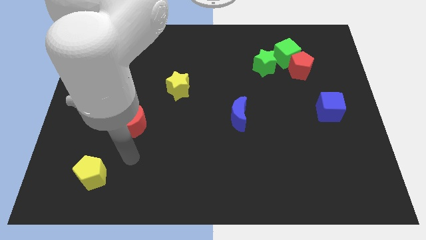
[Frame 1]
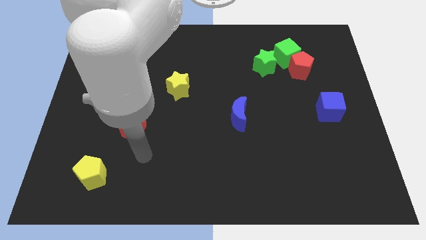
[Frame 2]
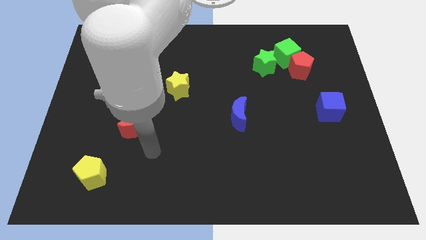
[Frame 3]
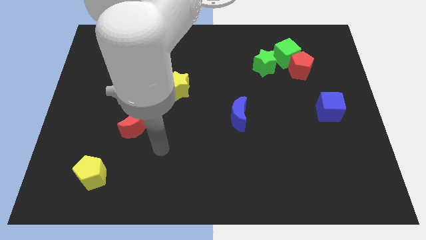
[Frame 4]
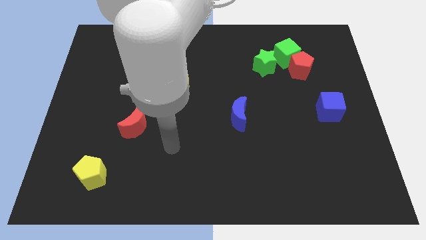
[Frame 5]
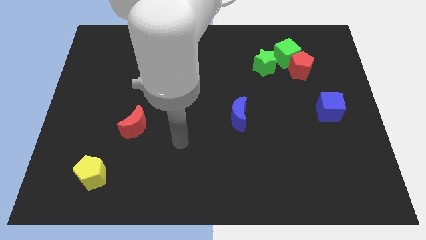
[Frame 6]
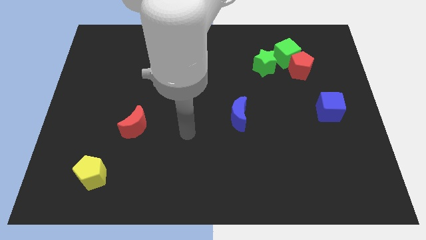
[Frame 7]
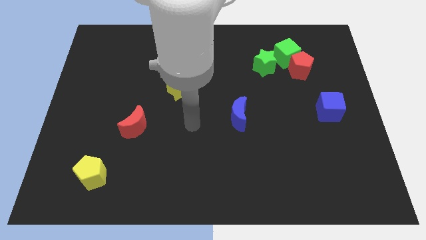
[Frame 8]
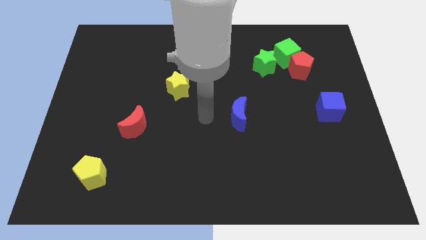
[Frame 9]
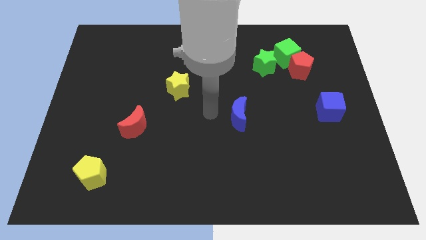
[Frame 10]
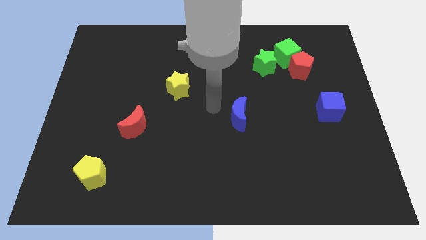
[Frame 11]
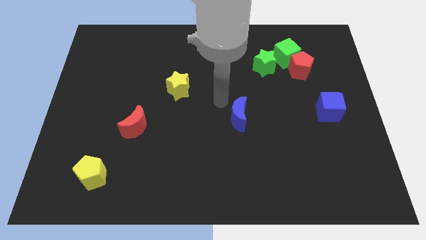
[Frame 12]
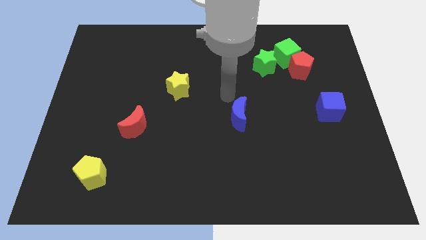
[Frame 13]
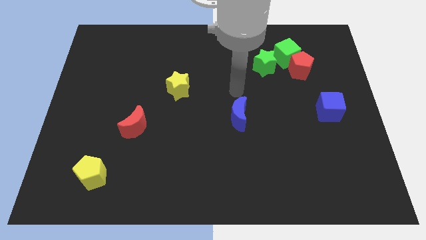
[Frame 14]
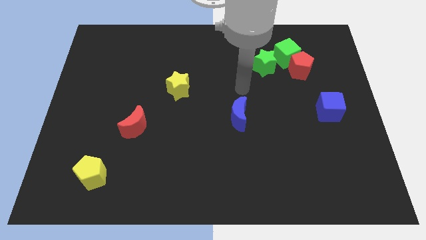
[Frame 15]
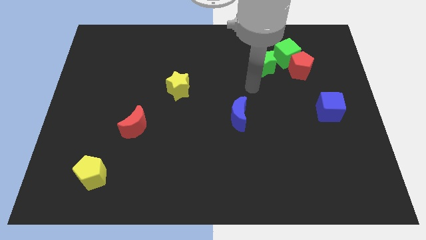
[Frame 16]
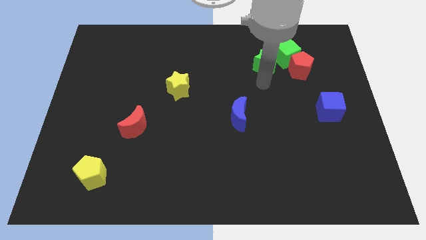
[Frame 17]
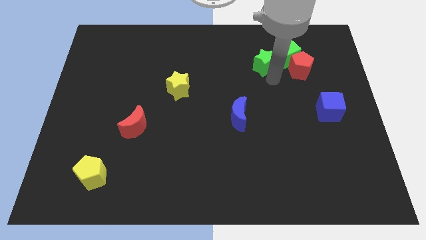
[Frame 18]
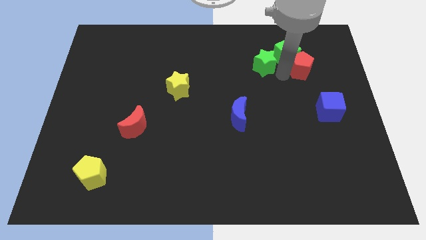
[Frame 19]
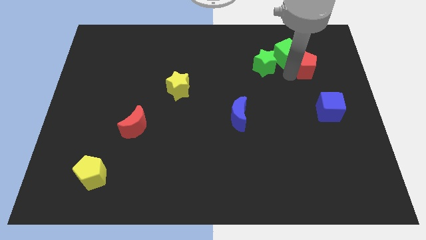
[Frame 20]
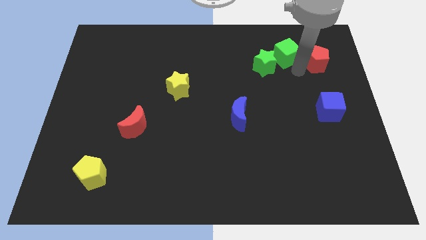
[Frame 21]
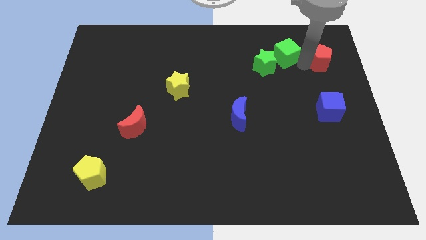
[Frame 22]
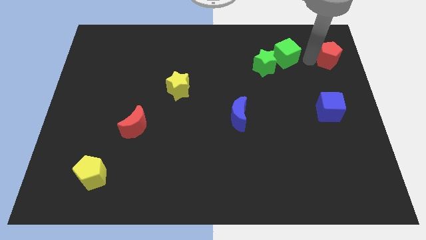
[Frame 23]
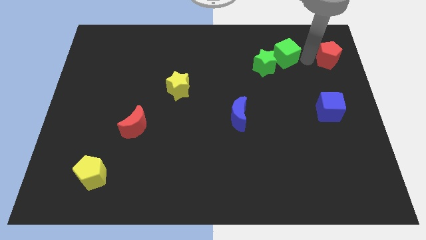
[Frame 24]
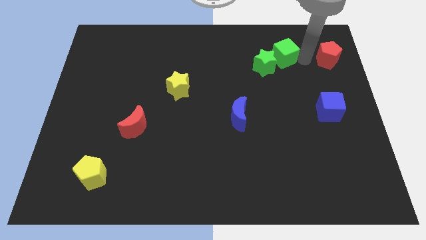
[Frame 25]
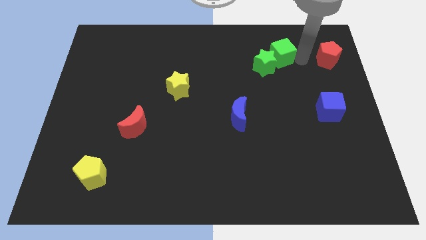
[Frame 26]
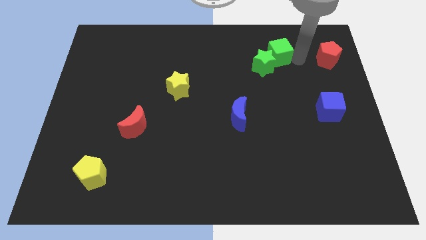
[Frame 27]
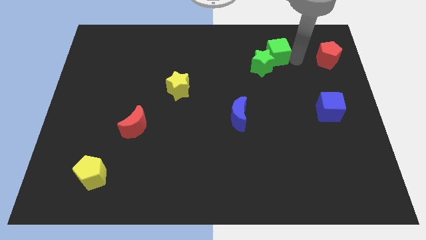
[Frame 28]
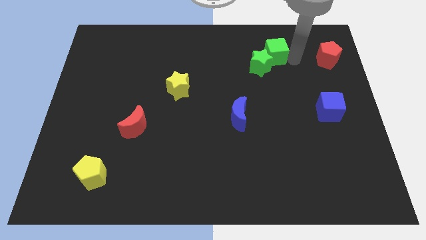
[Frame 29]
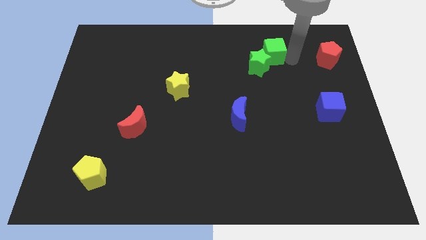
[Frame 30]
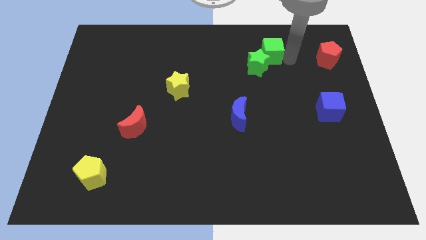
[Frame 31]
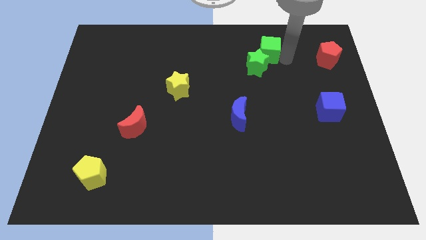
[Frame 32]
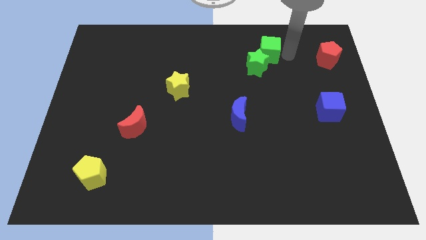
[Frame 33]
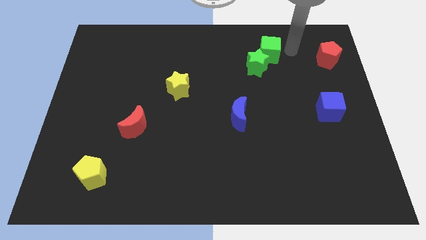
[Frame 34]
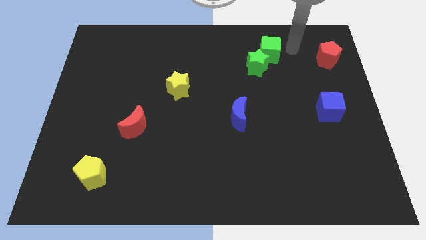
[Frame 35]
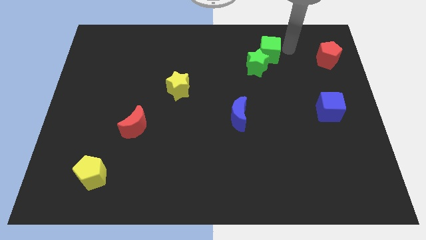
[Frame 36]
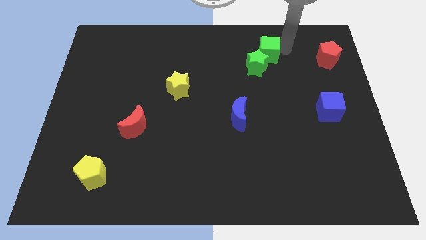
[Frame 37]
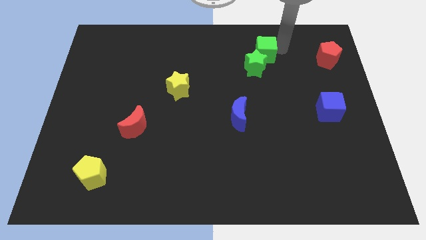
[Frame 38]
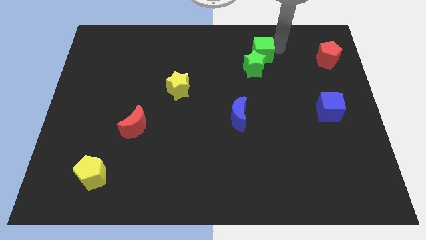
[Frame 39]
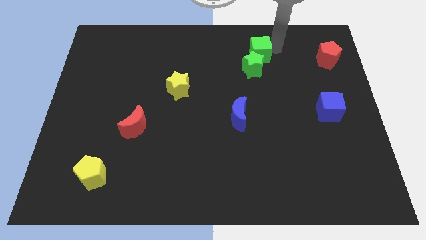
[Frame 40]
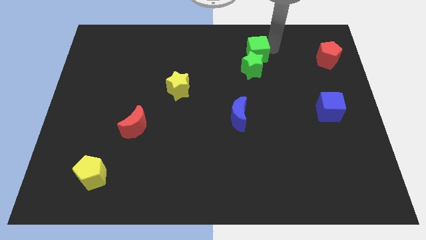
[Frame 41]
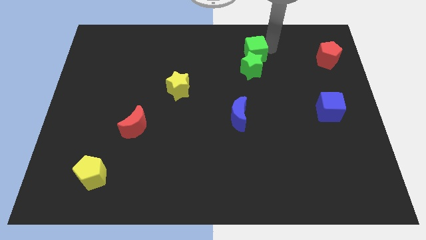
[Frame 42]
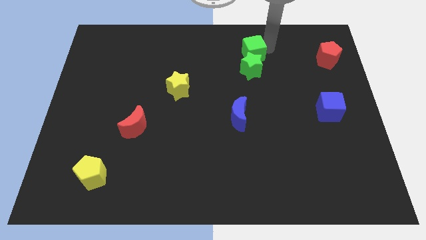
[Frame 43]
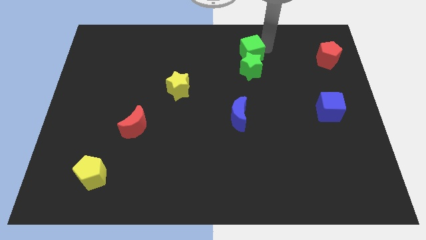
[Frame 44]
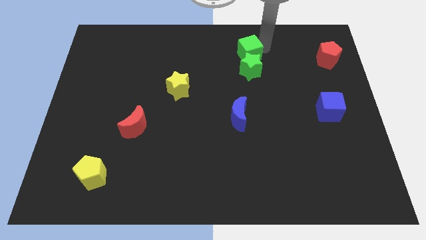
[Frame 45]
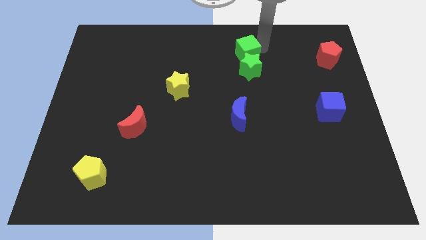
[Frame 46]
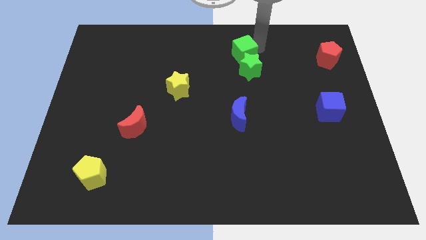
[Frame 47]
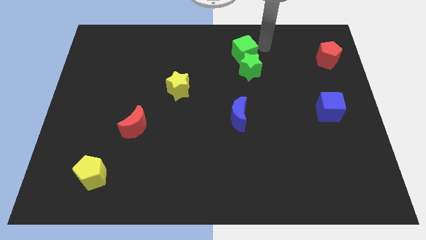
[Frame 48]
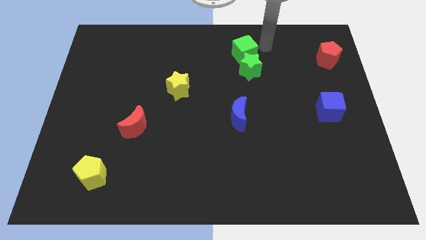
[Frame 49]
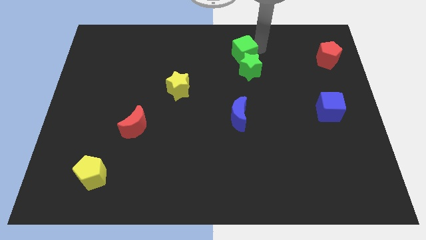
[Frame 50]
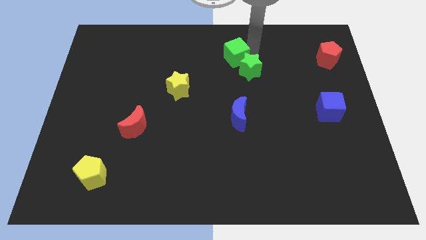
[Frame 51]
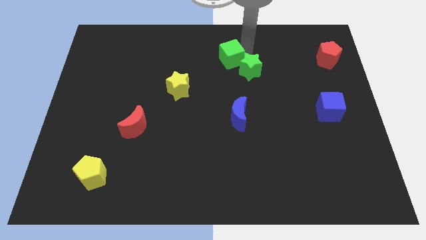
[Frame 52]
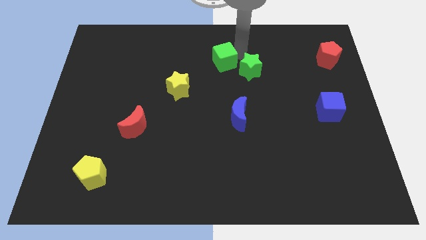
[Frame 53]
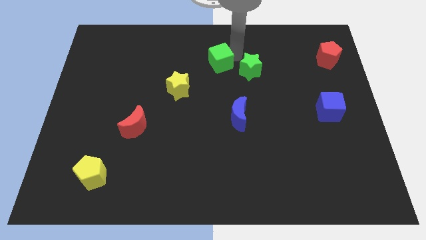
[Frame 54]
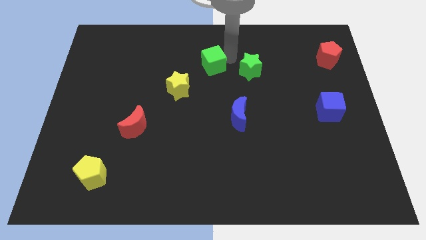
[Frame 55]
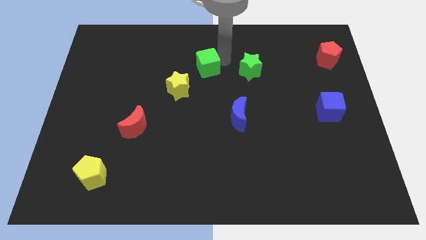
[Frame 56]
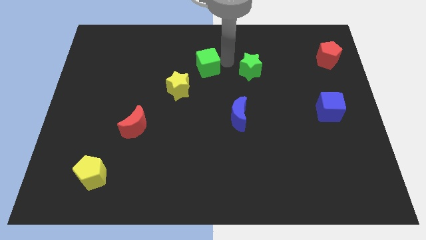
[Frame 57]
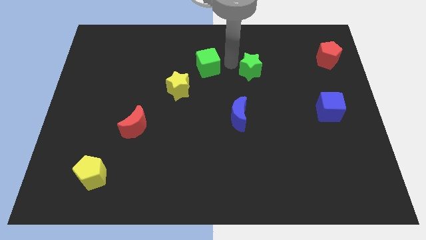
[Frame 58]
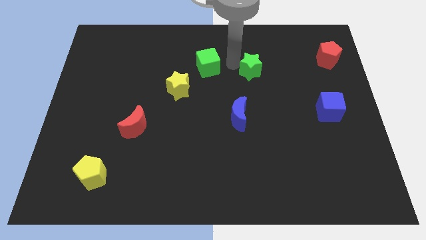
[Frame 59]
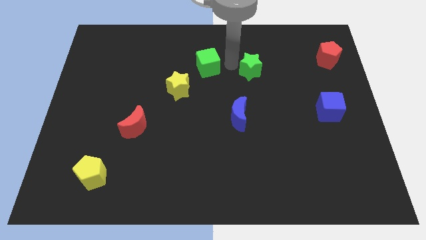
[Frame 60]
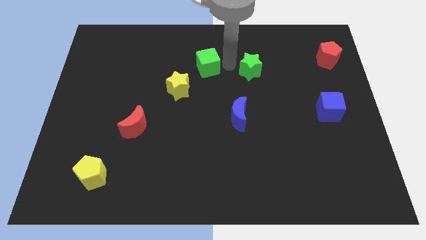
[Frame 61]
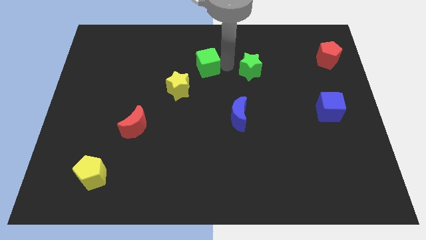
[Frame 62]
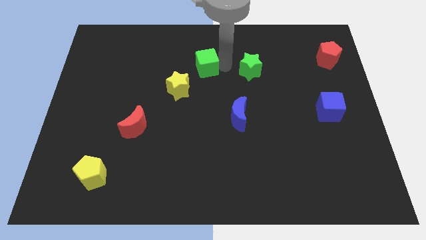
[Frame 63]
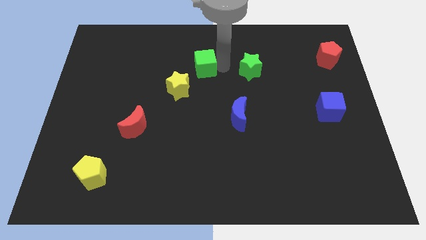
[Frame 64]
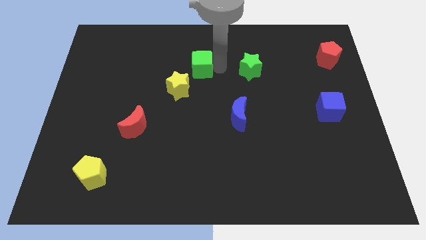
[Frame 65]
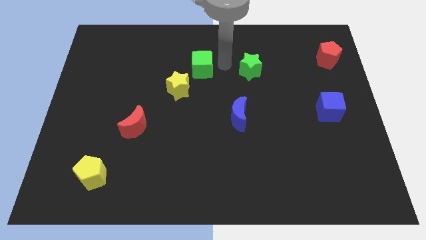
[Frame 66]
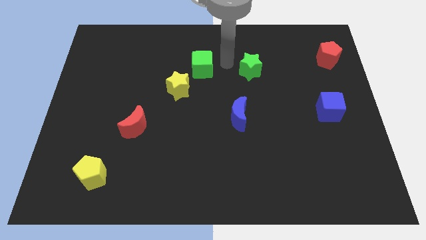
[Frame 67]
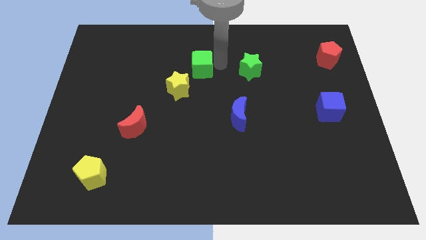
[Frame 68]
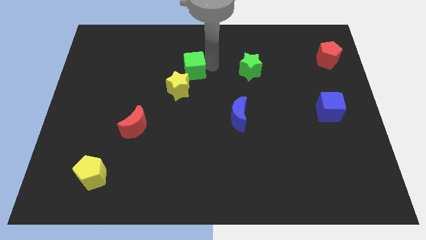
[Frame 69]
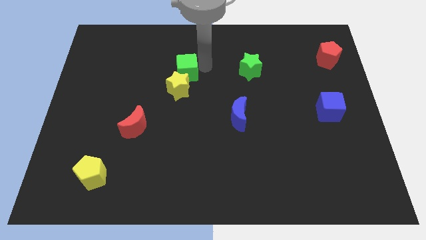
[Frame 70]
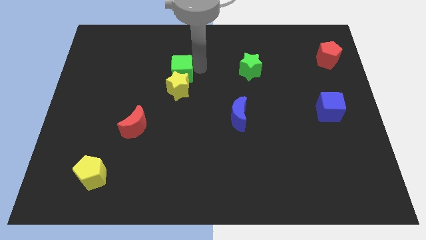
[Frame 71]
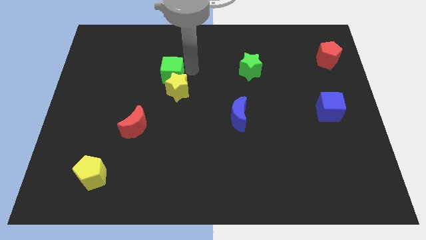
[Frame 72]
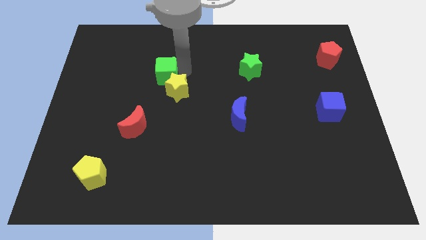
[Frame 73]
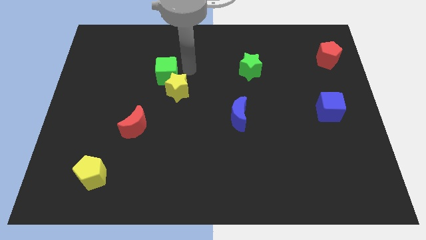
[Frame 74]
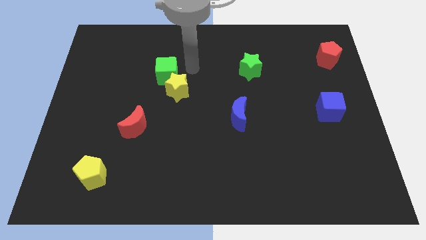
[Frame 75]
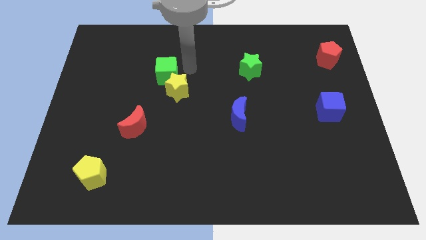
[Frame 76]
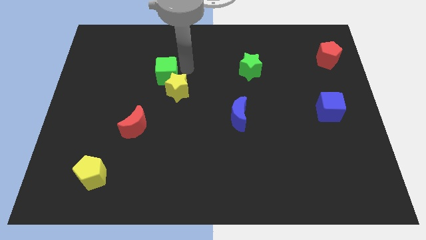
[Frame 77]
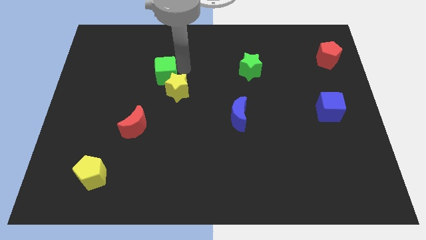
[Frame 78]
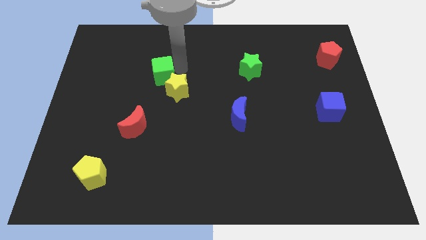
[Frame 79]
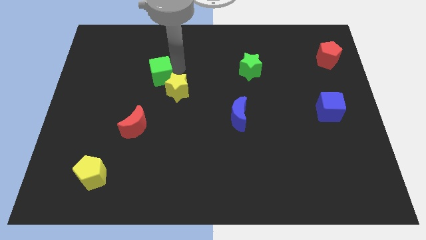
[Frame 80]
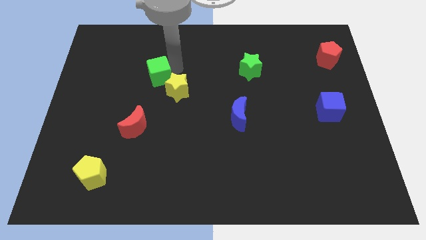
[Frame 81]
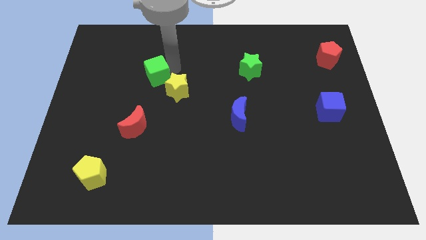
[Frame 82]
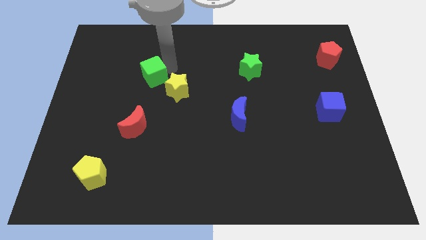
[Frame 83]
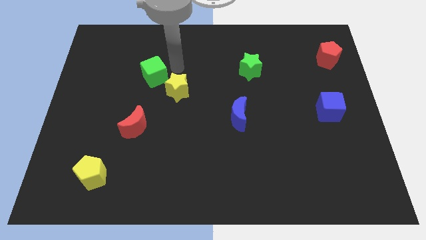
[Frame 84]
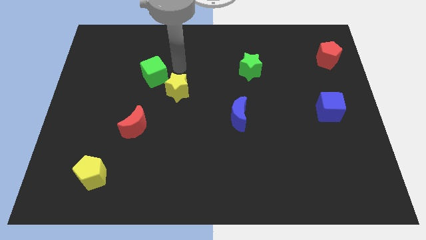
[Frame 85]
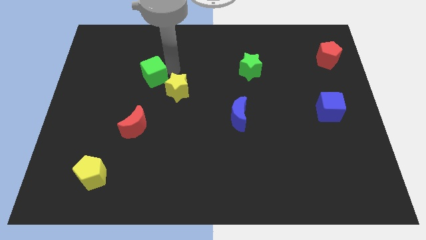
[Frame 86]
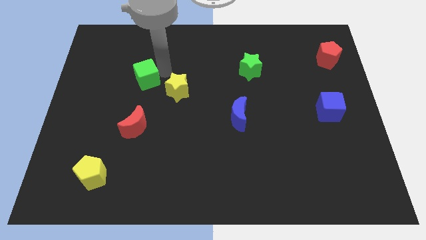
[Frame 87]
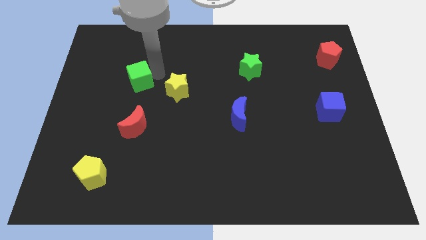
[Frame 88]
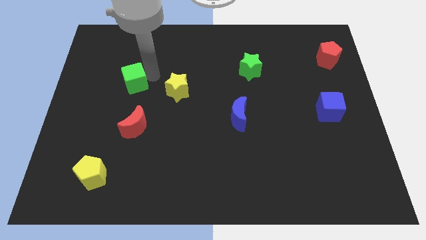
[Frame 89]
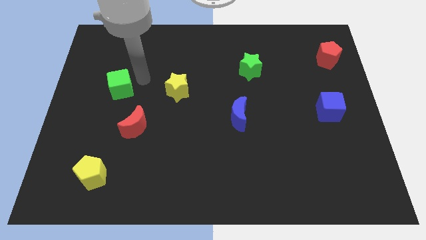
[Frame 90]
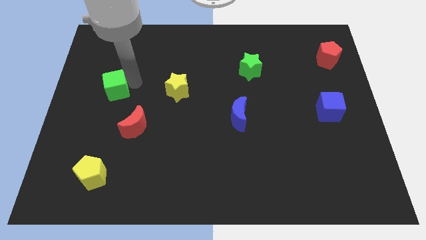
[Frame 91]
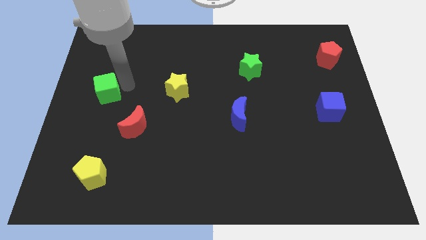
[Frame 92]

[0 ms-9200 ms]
slide the green cube to the center left
